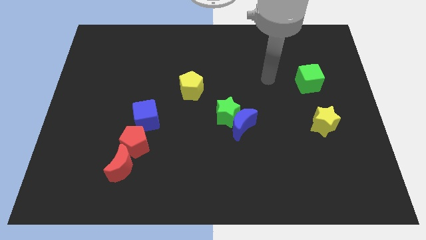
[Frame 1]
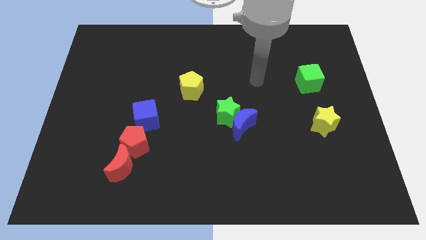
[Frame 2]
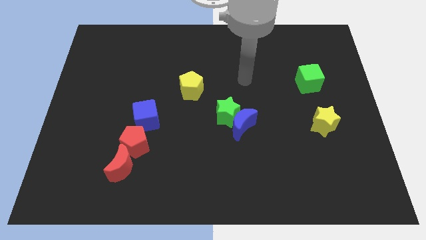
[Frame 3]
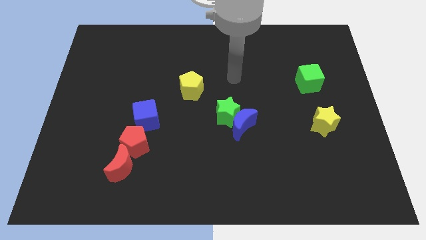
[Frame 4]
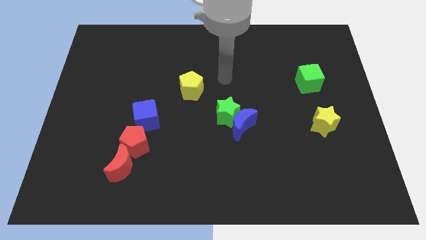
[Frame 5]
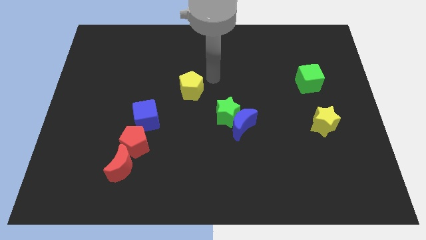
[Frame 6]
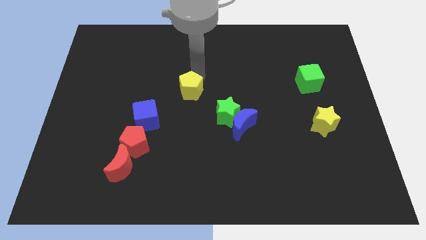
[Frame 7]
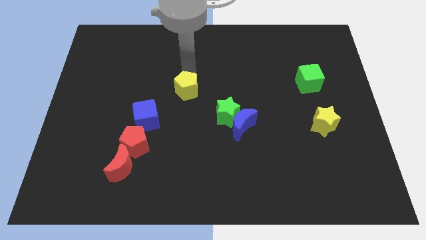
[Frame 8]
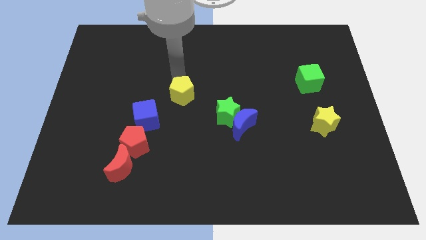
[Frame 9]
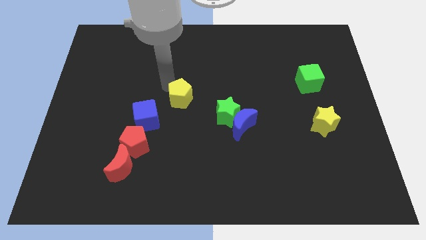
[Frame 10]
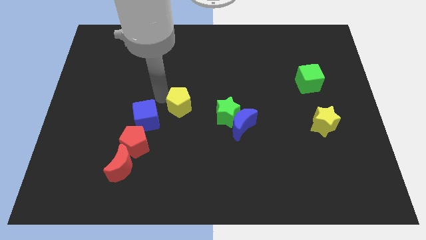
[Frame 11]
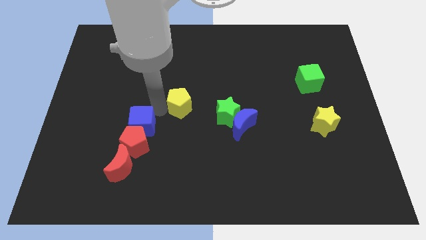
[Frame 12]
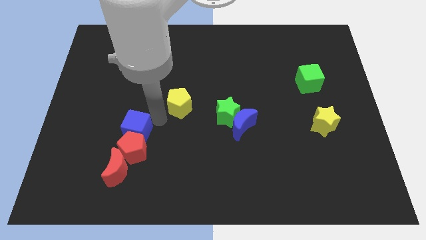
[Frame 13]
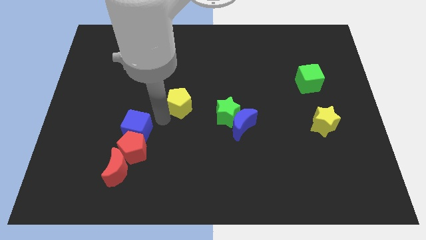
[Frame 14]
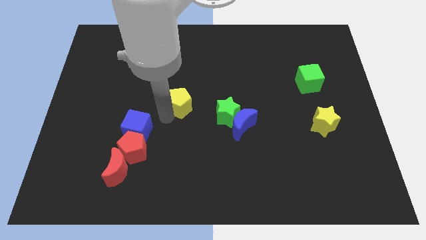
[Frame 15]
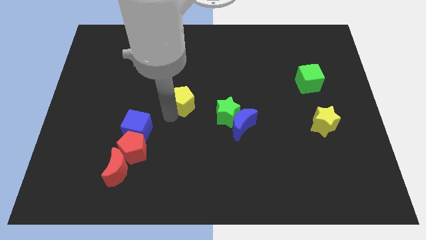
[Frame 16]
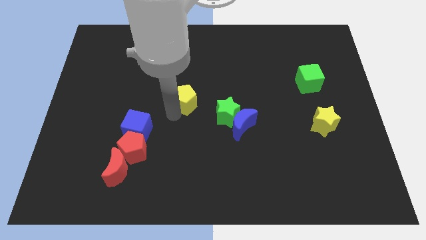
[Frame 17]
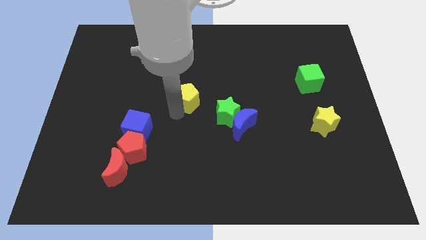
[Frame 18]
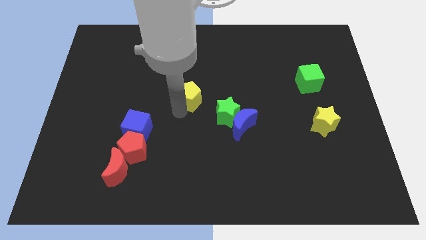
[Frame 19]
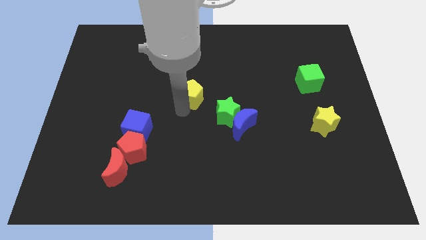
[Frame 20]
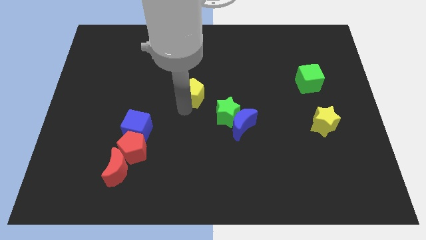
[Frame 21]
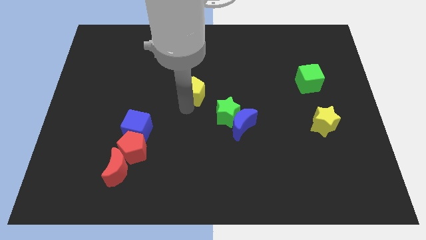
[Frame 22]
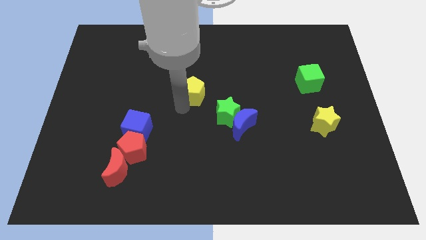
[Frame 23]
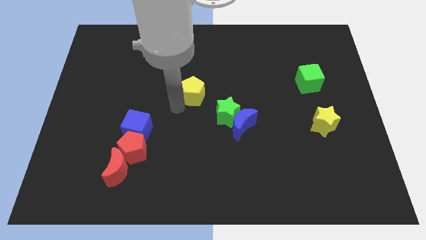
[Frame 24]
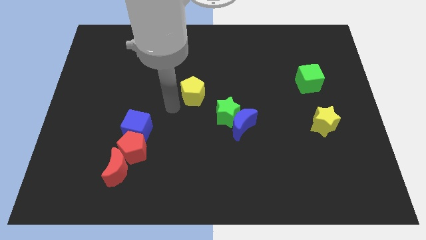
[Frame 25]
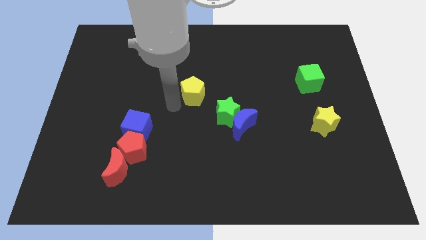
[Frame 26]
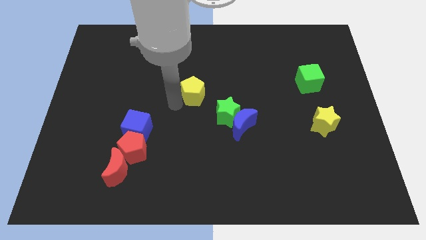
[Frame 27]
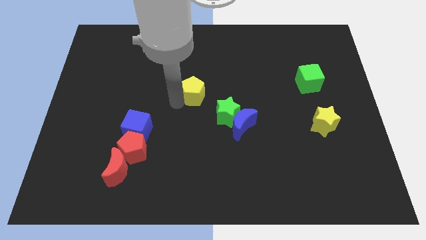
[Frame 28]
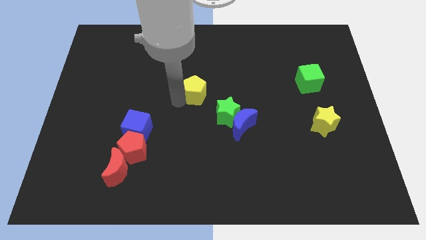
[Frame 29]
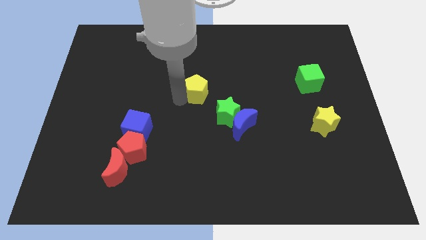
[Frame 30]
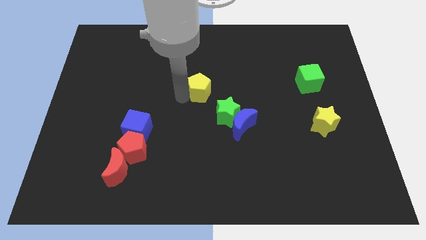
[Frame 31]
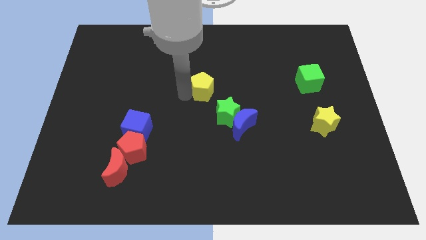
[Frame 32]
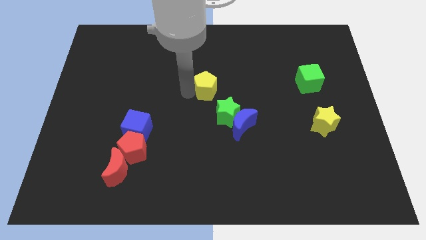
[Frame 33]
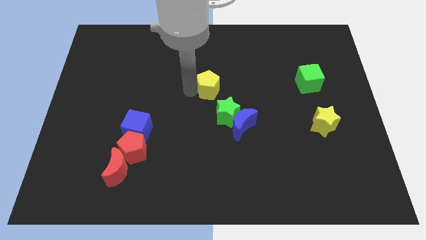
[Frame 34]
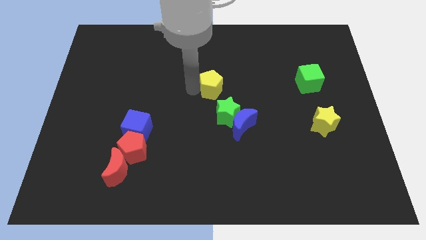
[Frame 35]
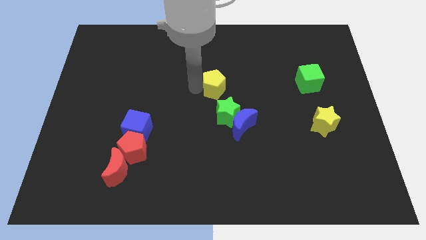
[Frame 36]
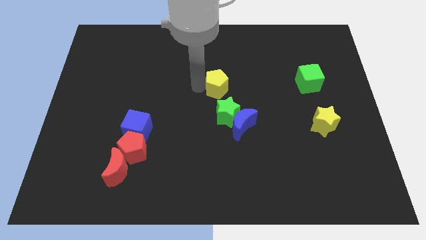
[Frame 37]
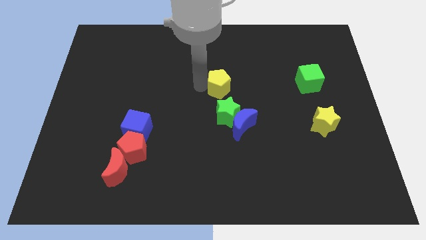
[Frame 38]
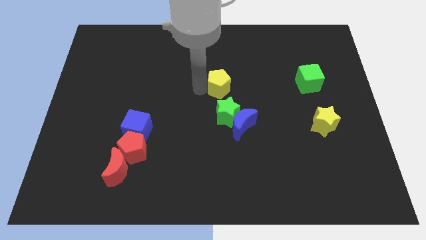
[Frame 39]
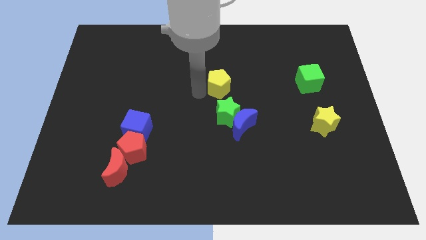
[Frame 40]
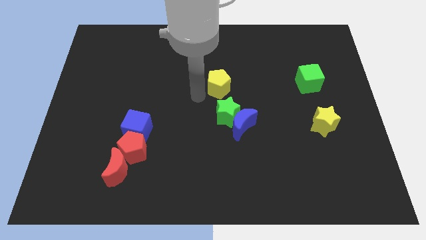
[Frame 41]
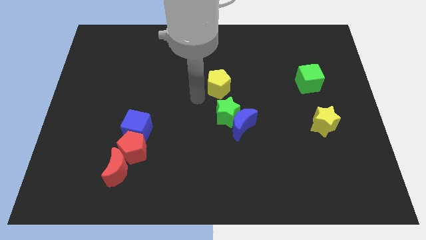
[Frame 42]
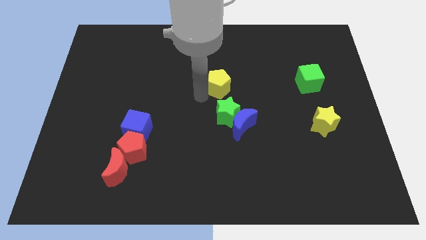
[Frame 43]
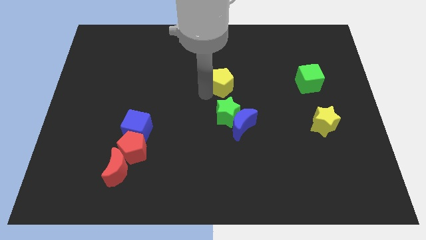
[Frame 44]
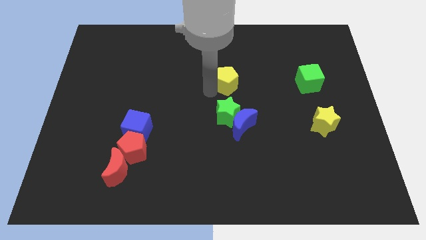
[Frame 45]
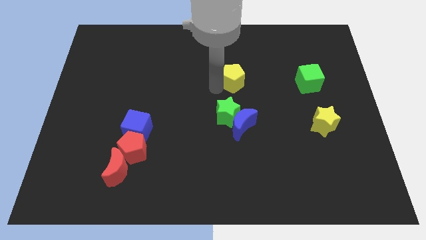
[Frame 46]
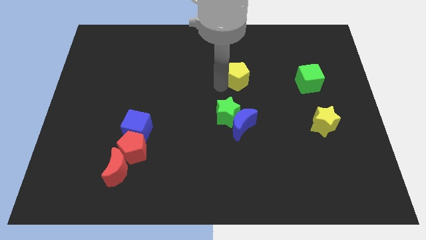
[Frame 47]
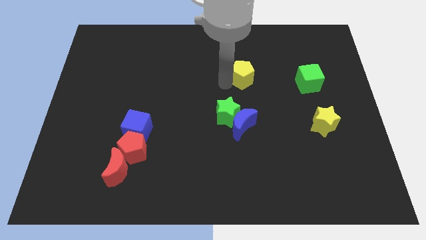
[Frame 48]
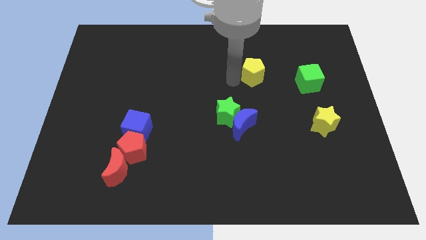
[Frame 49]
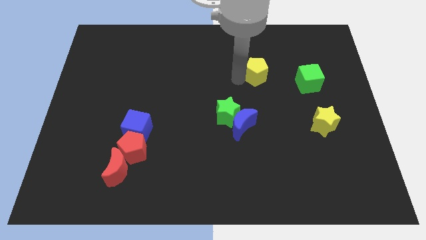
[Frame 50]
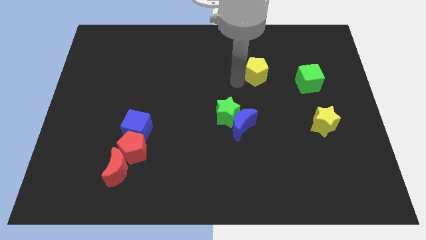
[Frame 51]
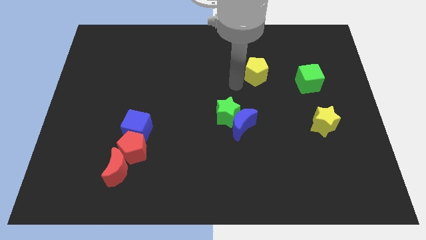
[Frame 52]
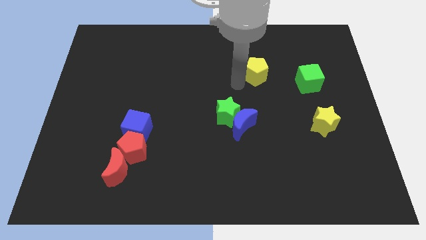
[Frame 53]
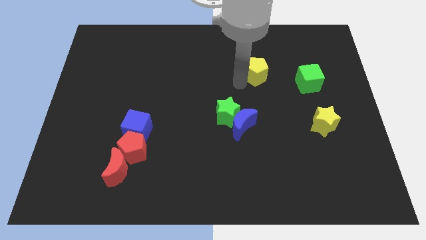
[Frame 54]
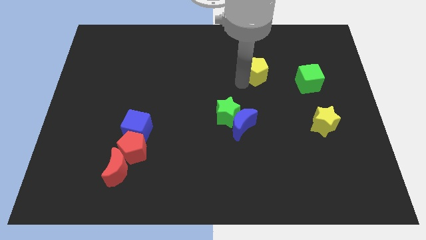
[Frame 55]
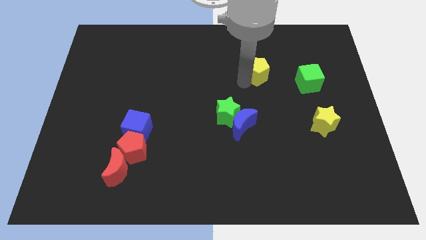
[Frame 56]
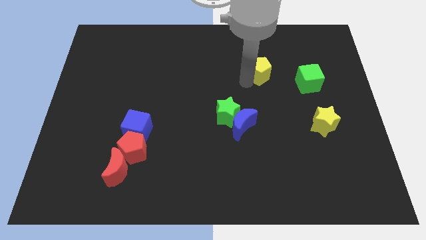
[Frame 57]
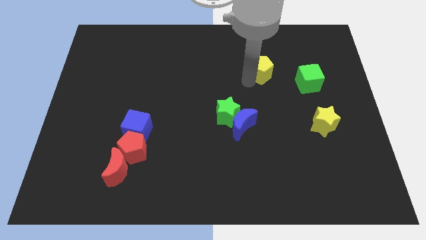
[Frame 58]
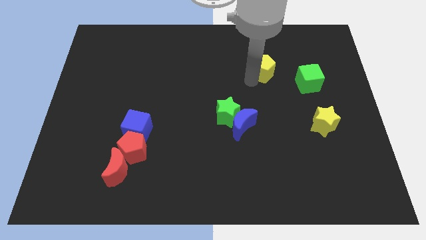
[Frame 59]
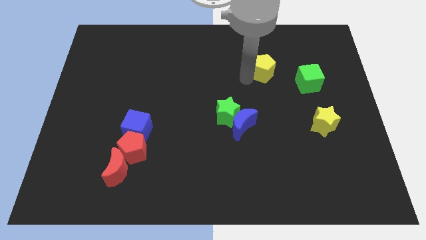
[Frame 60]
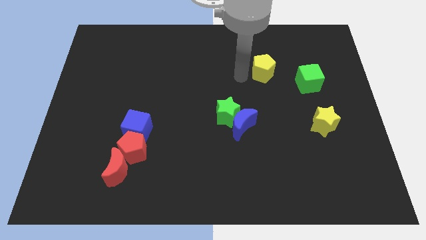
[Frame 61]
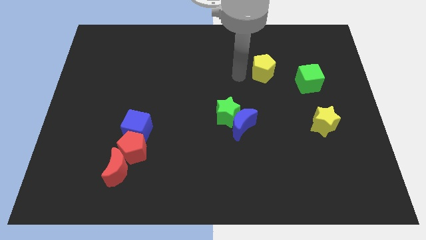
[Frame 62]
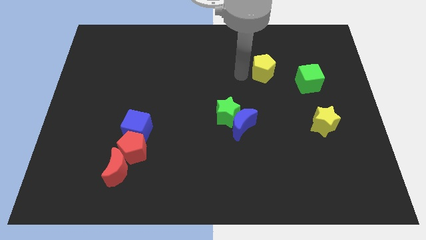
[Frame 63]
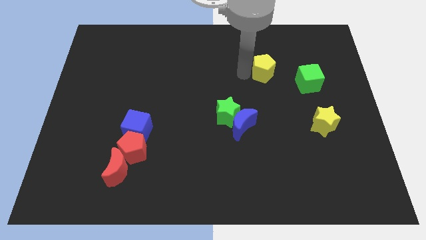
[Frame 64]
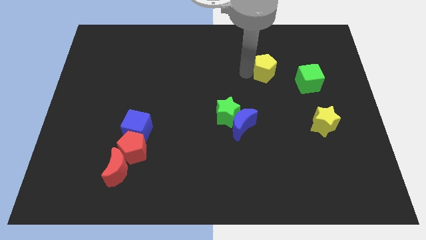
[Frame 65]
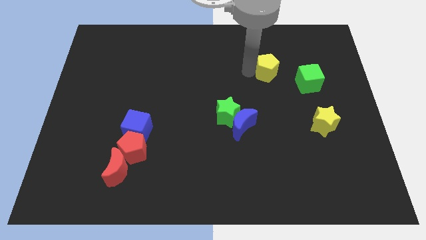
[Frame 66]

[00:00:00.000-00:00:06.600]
move the yellow pentagon diagonally up and to the left of the green cube
